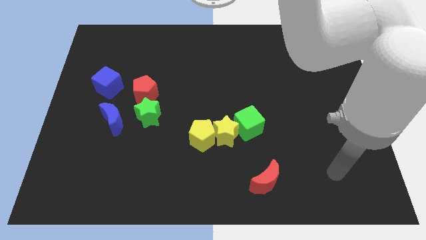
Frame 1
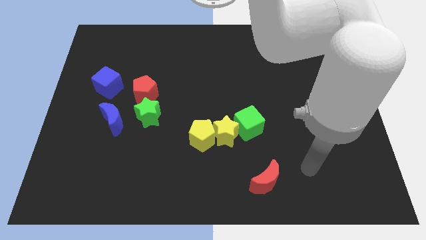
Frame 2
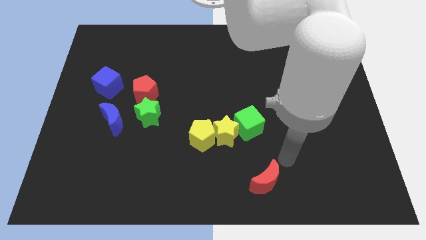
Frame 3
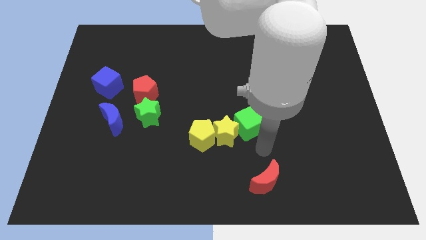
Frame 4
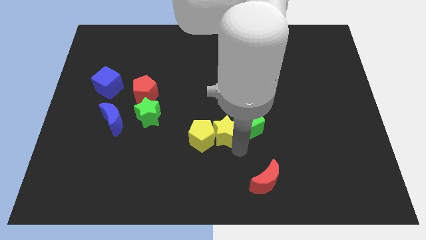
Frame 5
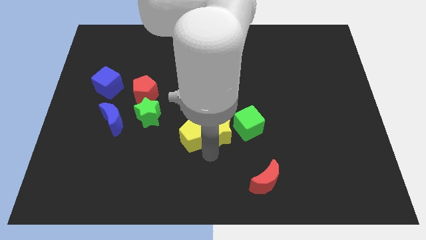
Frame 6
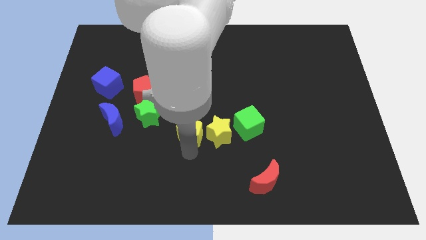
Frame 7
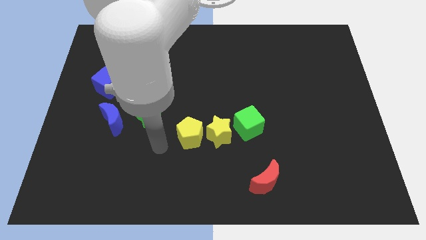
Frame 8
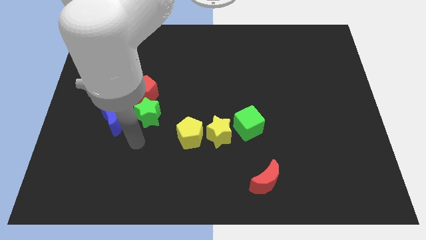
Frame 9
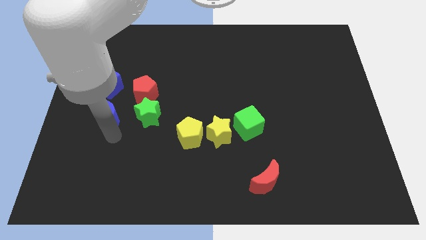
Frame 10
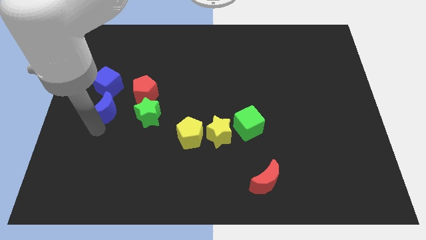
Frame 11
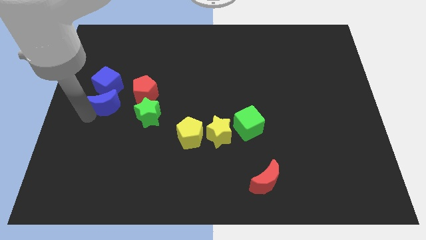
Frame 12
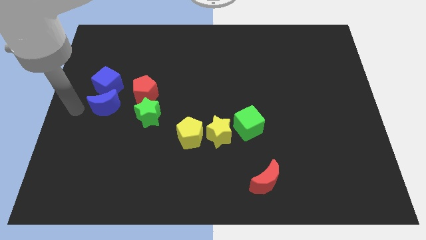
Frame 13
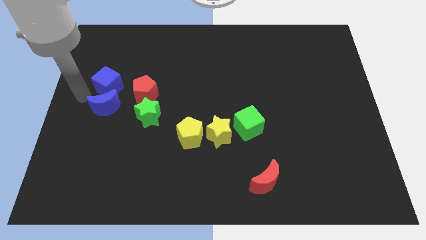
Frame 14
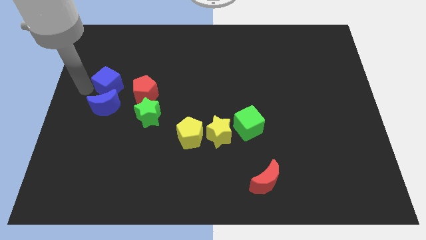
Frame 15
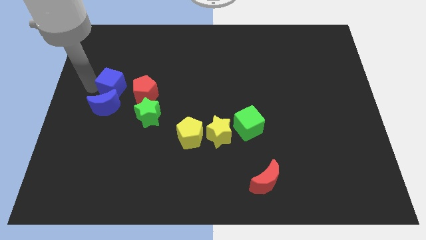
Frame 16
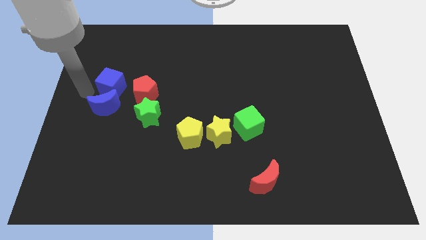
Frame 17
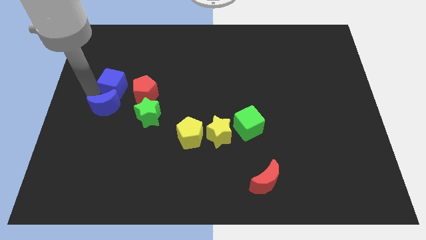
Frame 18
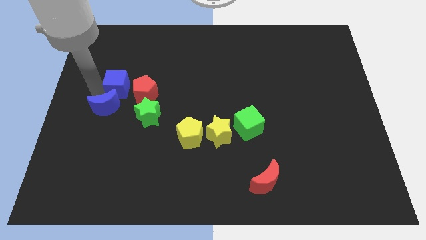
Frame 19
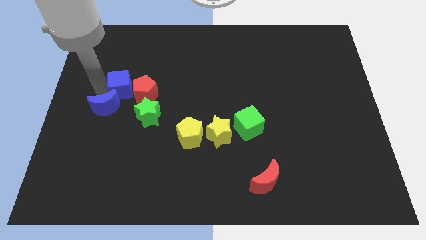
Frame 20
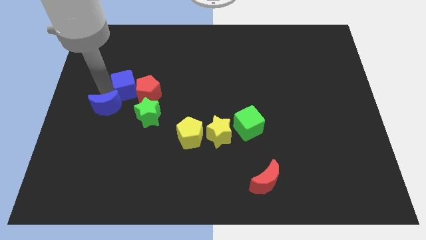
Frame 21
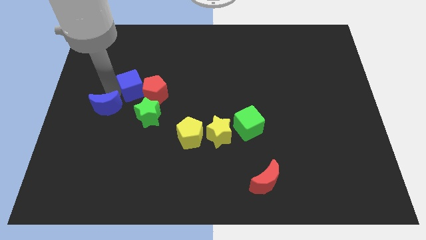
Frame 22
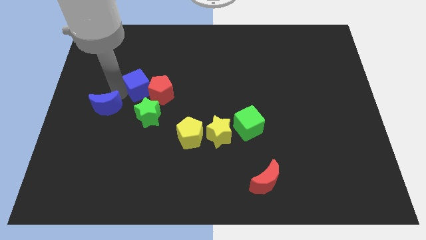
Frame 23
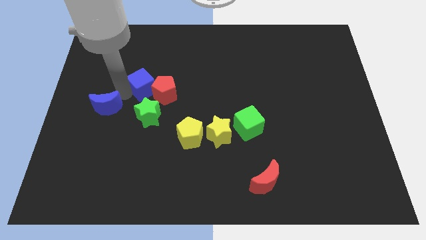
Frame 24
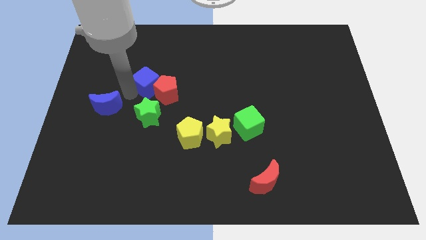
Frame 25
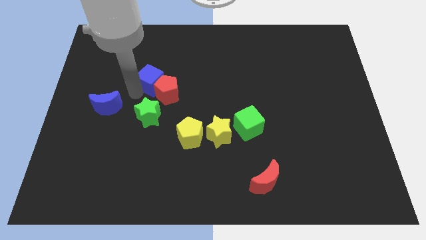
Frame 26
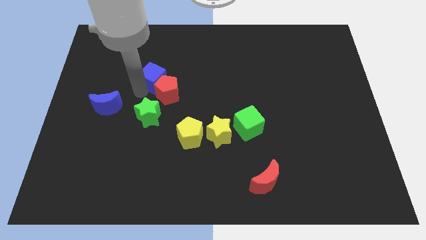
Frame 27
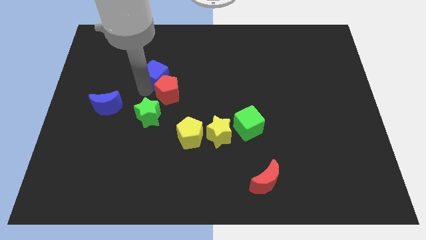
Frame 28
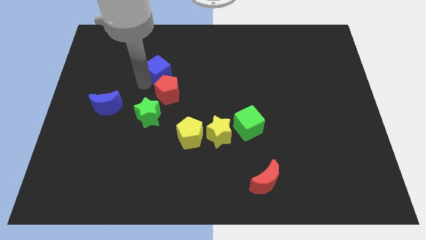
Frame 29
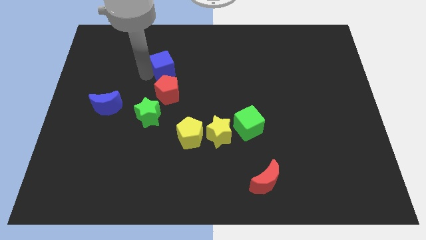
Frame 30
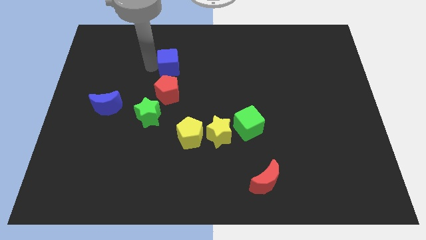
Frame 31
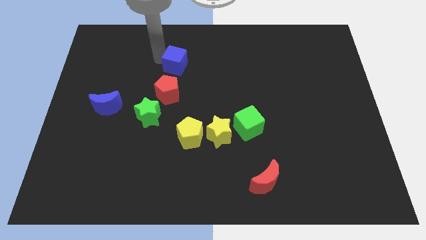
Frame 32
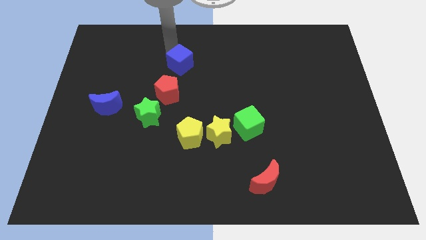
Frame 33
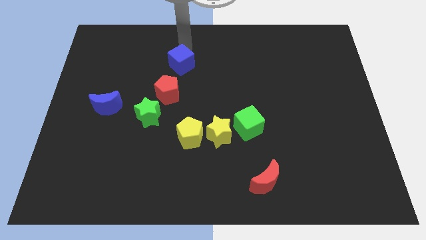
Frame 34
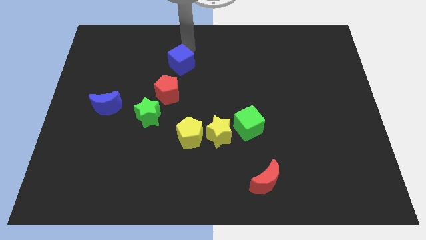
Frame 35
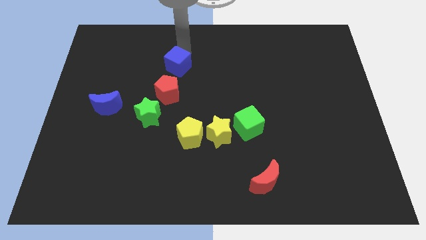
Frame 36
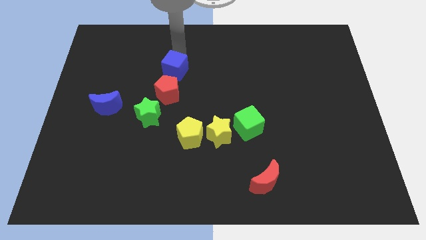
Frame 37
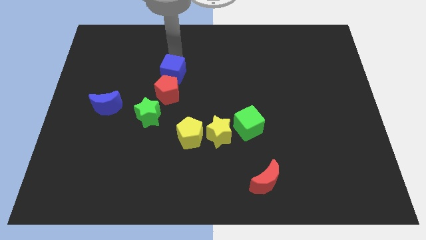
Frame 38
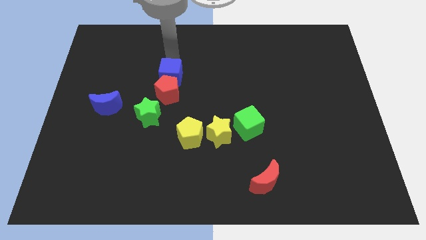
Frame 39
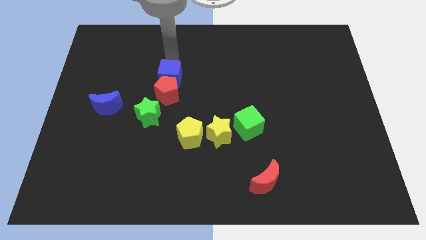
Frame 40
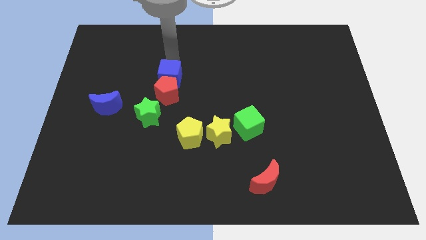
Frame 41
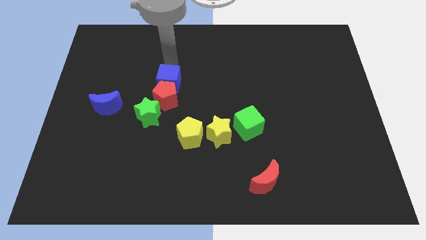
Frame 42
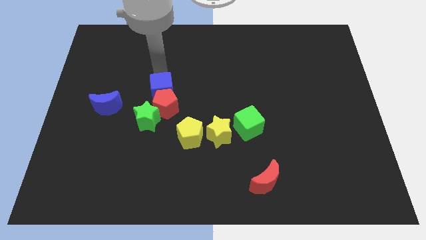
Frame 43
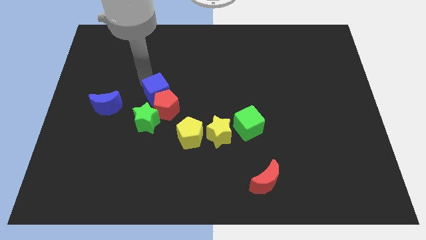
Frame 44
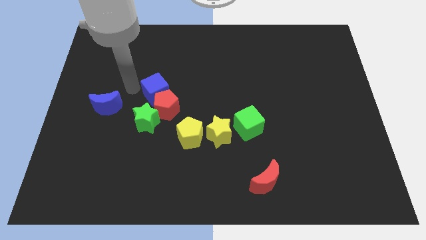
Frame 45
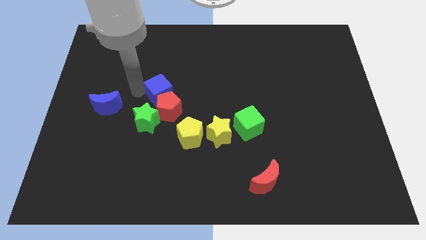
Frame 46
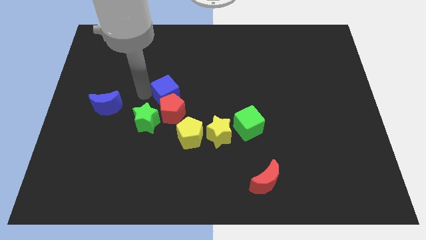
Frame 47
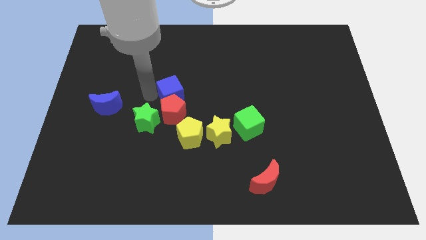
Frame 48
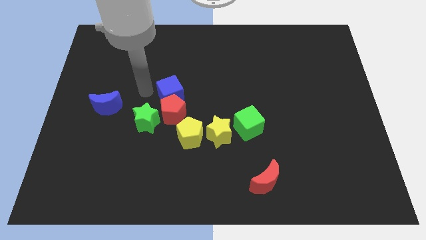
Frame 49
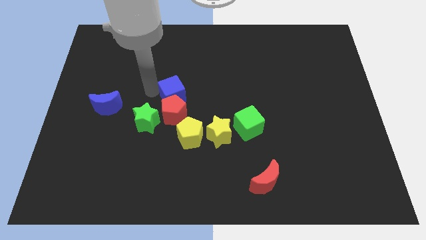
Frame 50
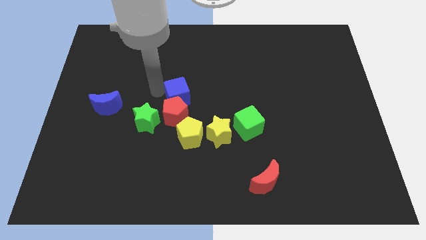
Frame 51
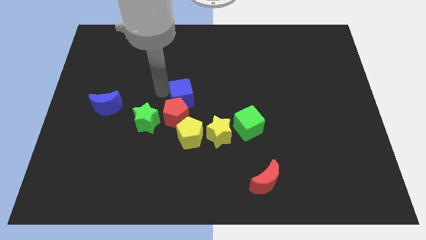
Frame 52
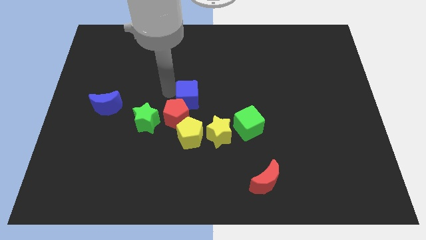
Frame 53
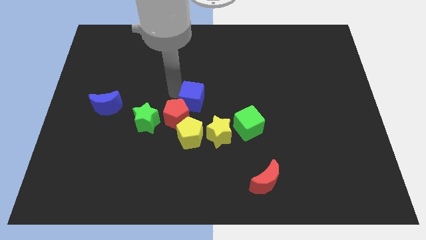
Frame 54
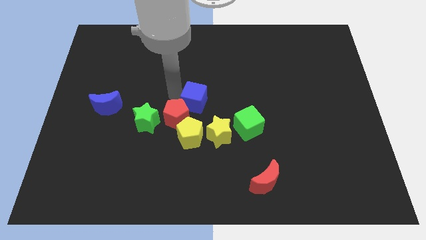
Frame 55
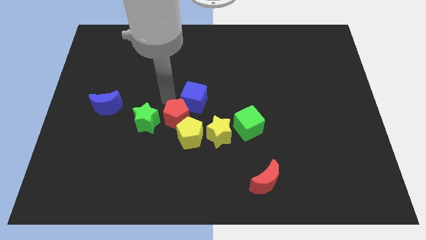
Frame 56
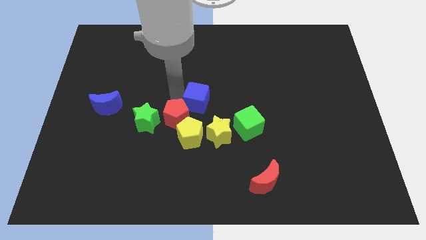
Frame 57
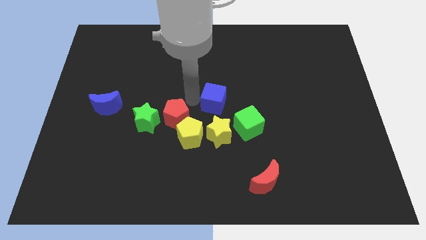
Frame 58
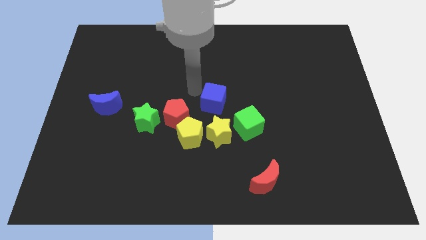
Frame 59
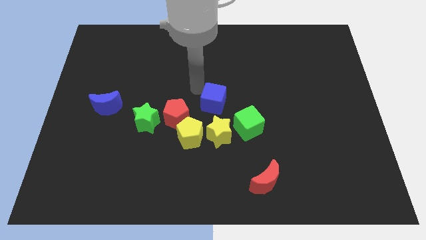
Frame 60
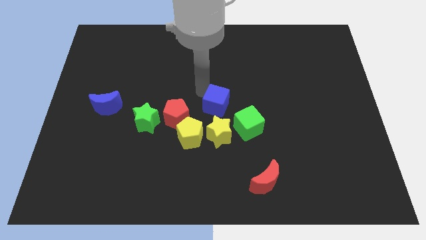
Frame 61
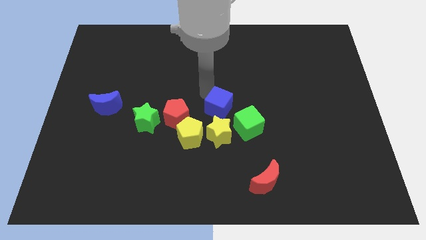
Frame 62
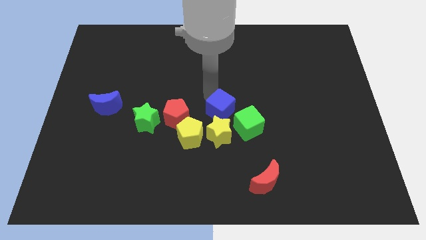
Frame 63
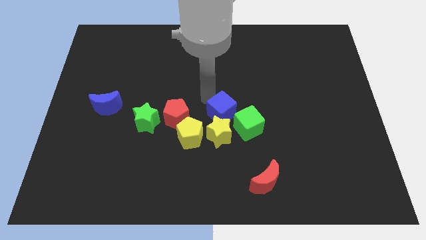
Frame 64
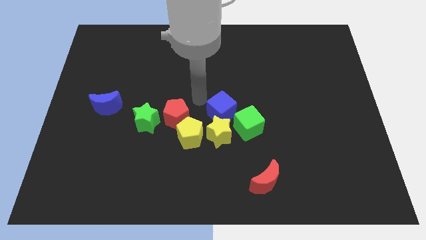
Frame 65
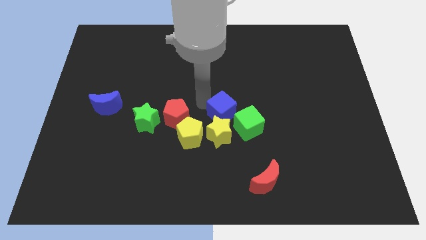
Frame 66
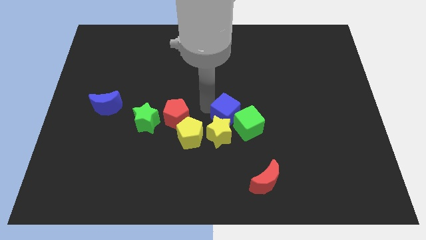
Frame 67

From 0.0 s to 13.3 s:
push the blue cube close to the green cube
